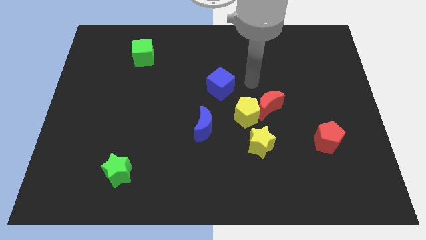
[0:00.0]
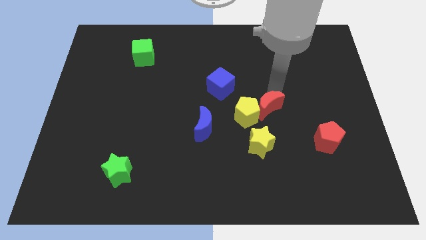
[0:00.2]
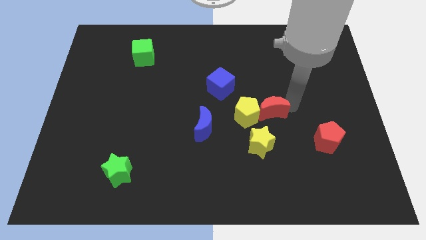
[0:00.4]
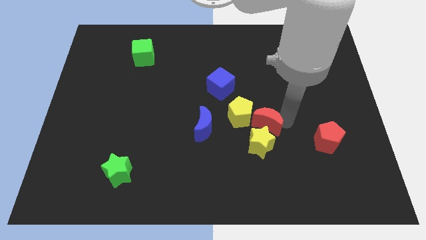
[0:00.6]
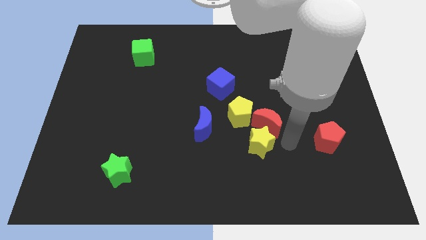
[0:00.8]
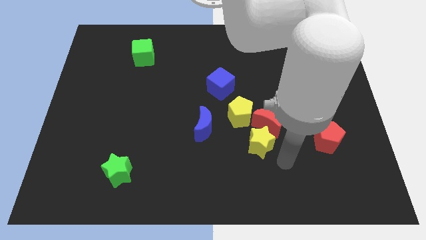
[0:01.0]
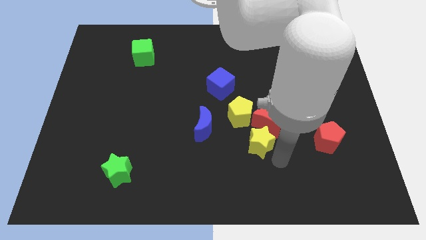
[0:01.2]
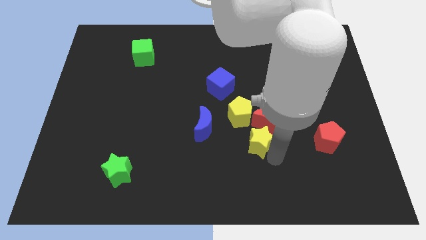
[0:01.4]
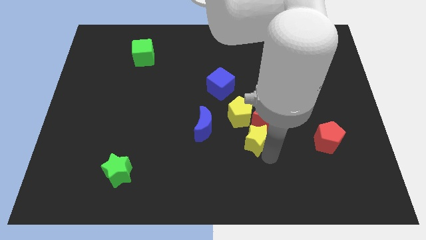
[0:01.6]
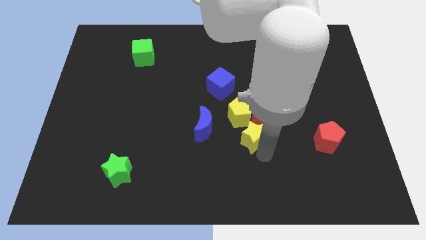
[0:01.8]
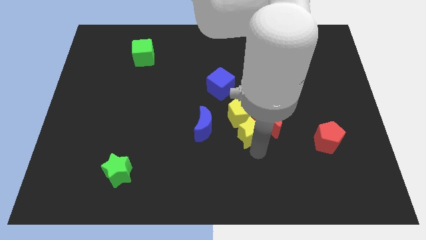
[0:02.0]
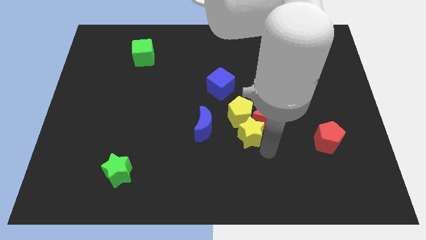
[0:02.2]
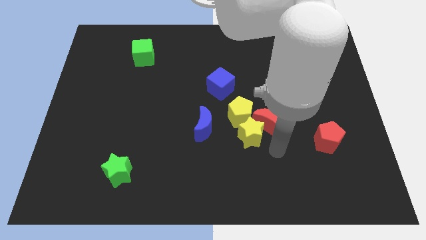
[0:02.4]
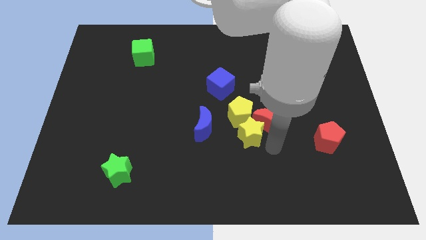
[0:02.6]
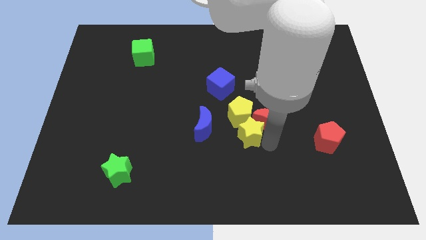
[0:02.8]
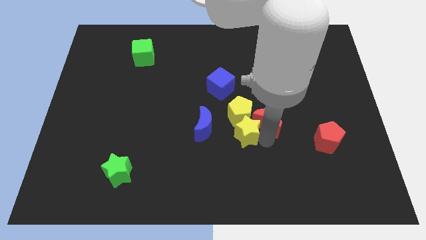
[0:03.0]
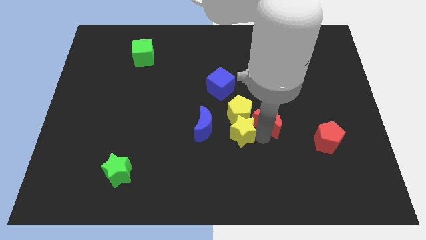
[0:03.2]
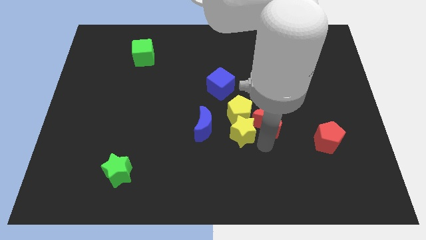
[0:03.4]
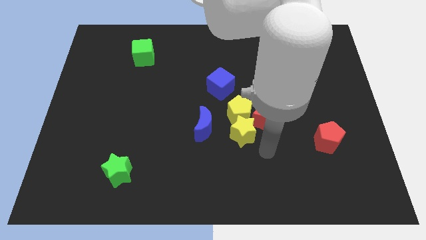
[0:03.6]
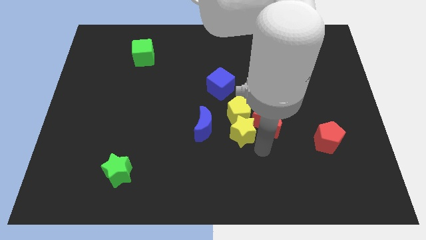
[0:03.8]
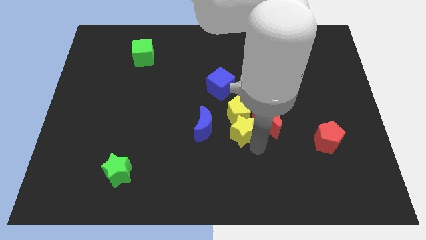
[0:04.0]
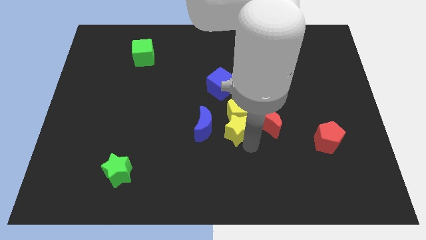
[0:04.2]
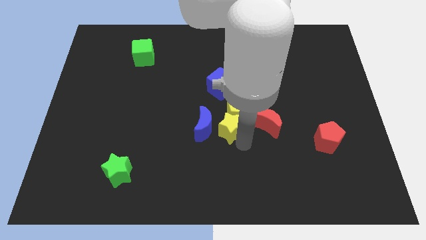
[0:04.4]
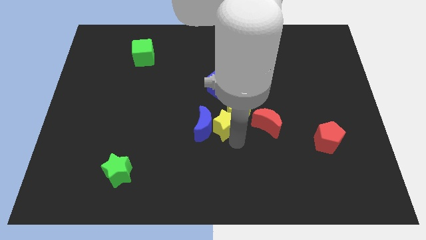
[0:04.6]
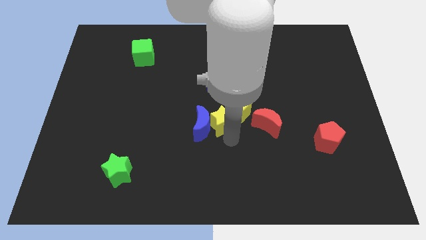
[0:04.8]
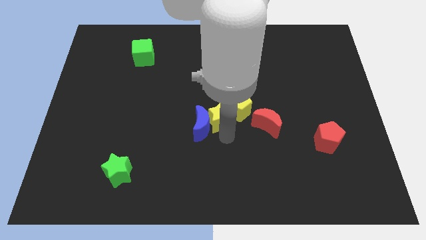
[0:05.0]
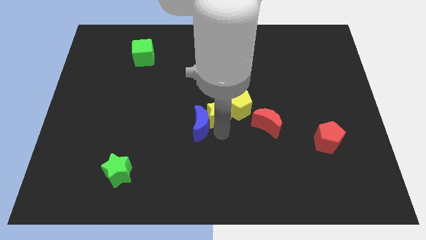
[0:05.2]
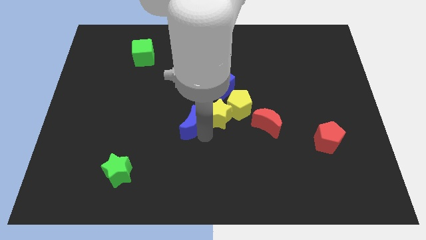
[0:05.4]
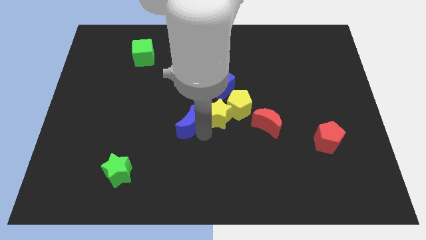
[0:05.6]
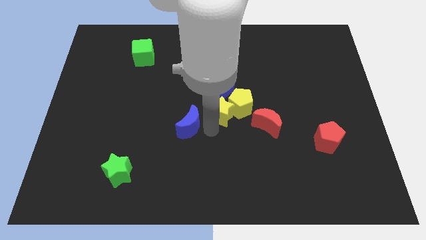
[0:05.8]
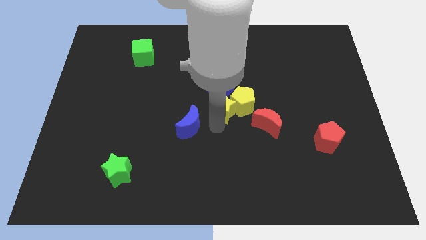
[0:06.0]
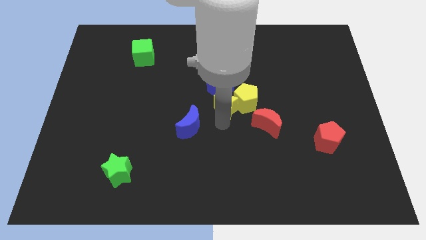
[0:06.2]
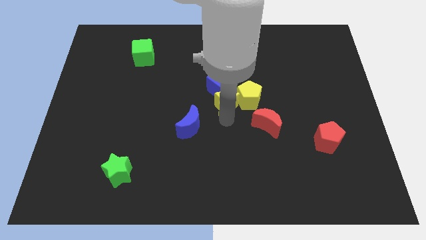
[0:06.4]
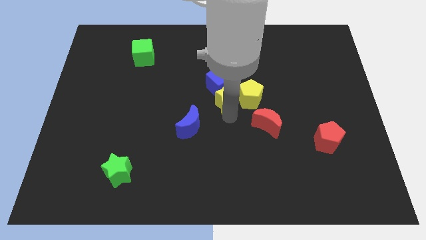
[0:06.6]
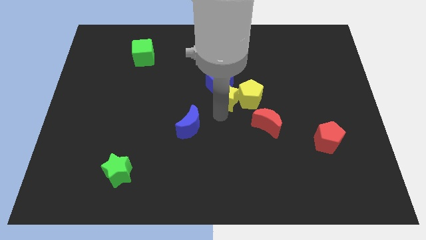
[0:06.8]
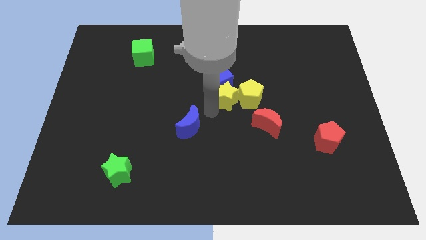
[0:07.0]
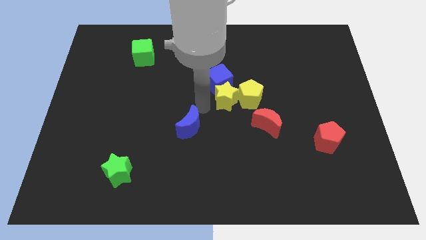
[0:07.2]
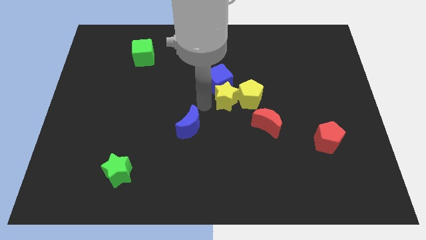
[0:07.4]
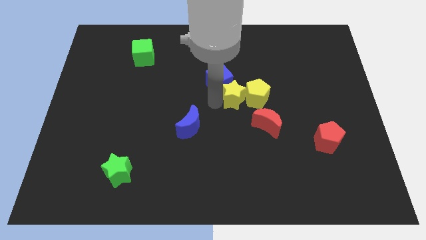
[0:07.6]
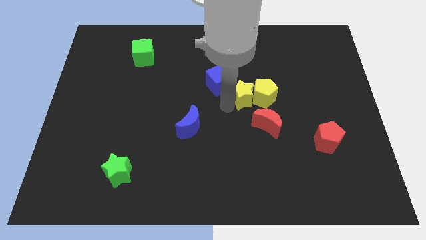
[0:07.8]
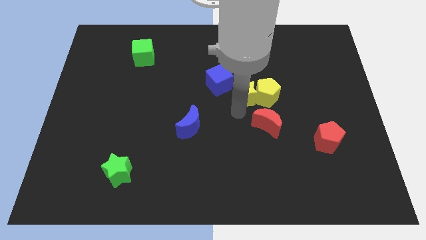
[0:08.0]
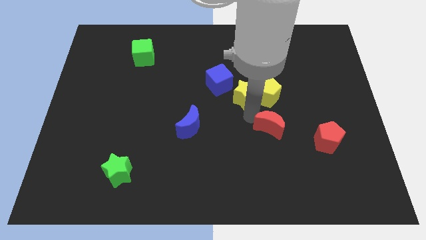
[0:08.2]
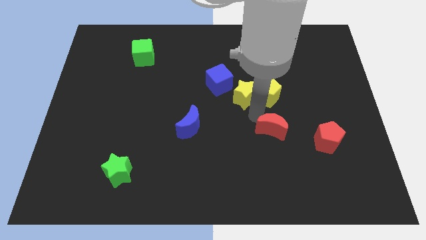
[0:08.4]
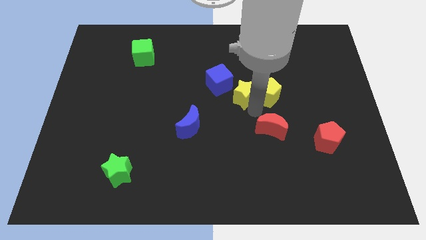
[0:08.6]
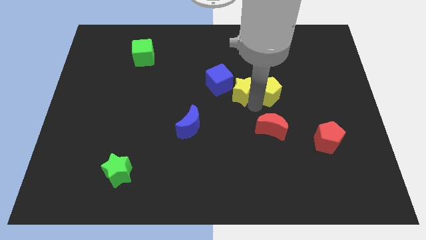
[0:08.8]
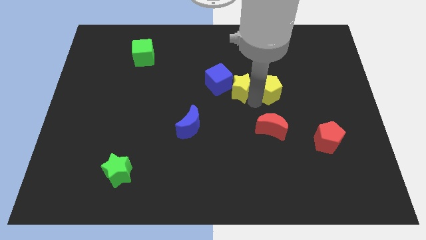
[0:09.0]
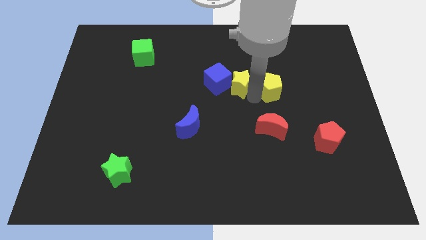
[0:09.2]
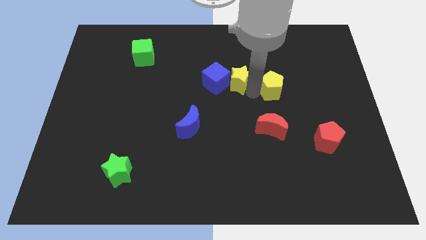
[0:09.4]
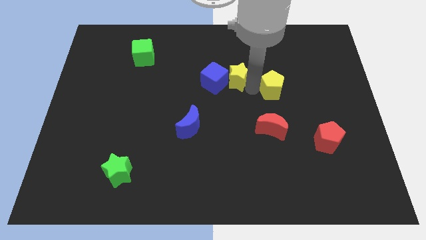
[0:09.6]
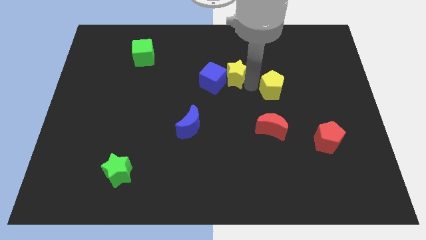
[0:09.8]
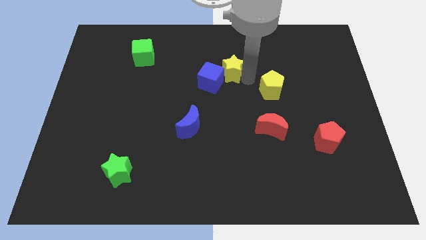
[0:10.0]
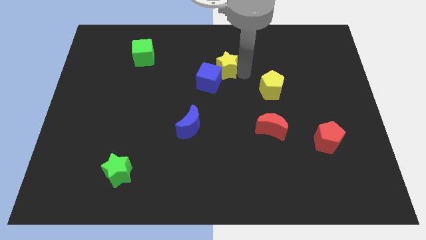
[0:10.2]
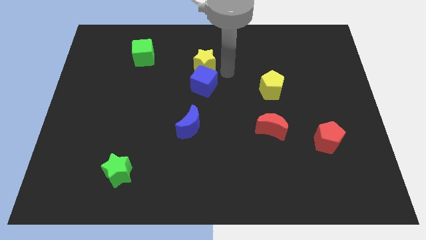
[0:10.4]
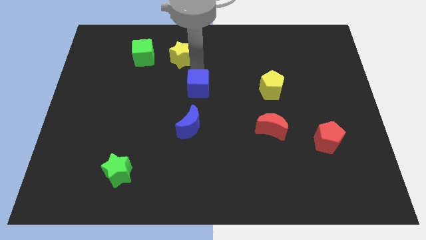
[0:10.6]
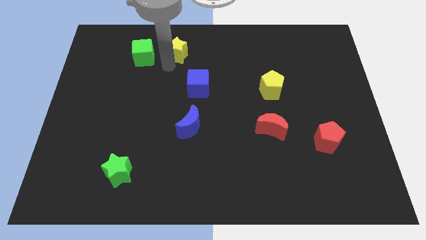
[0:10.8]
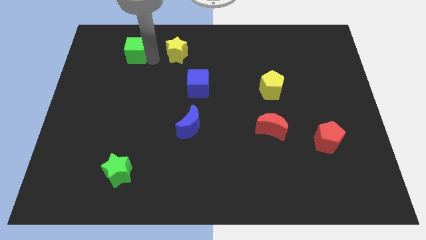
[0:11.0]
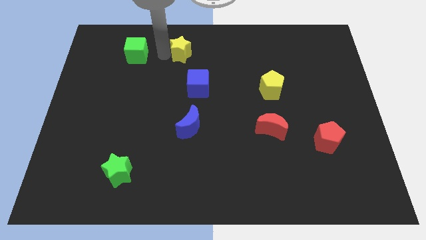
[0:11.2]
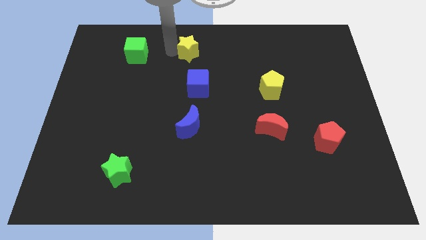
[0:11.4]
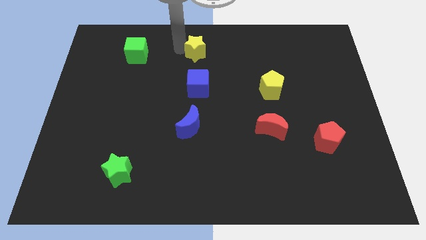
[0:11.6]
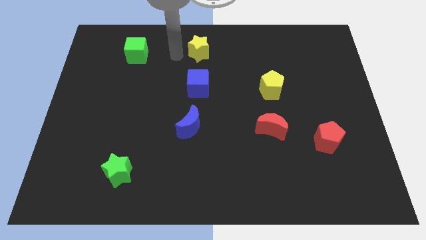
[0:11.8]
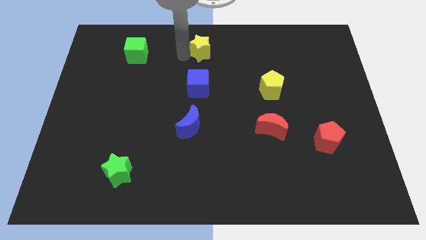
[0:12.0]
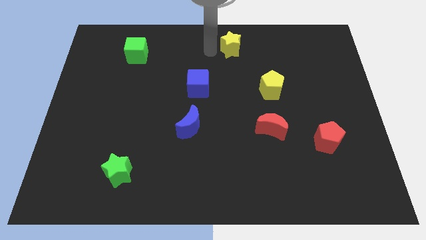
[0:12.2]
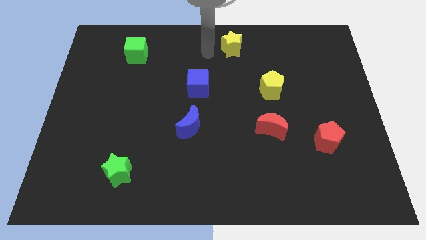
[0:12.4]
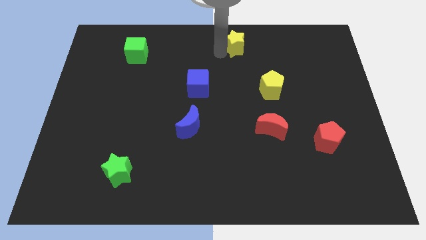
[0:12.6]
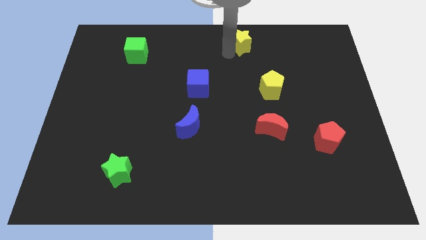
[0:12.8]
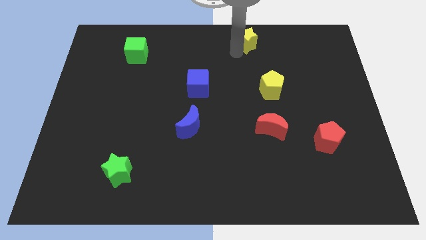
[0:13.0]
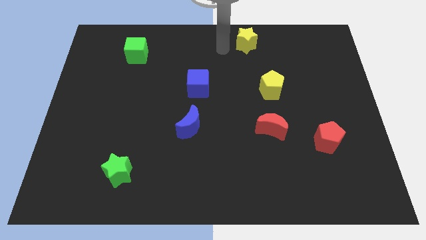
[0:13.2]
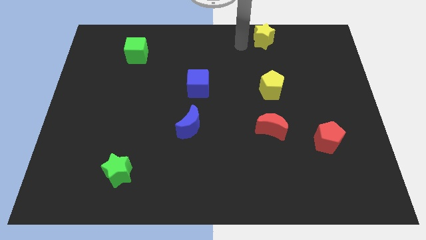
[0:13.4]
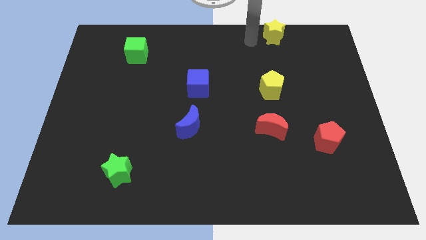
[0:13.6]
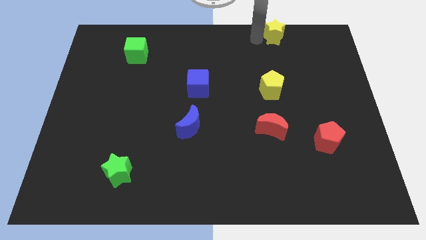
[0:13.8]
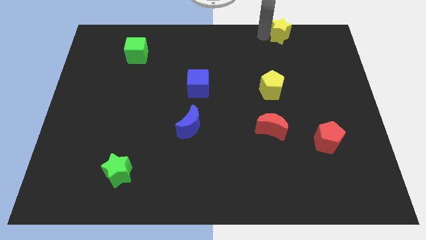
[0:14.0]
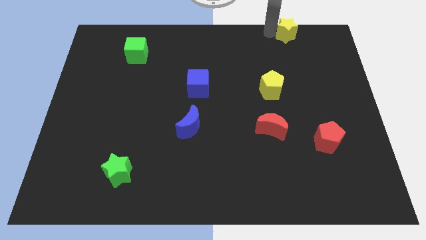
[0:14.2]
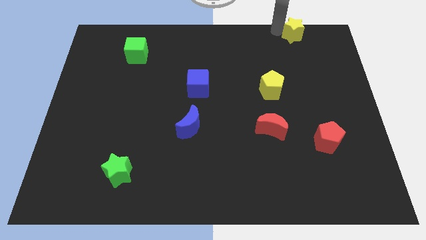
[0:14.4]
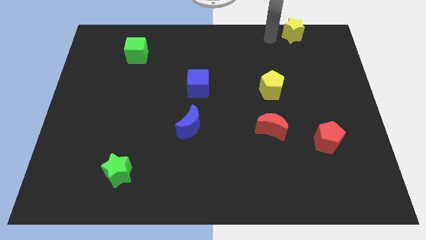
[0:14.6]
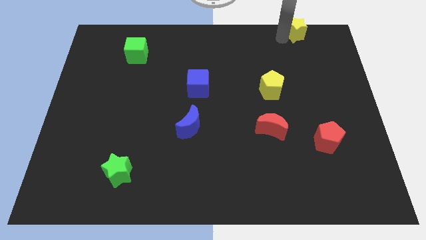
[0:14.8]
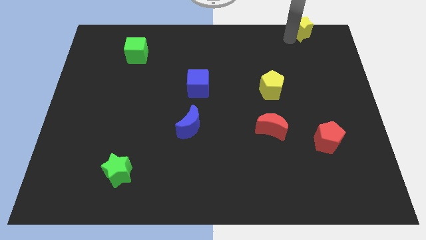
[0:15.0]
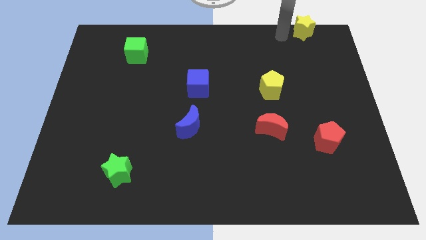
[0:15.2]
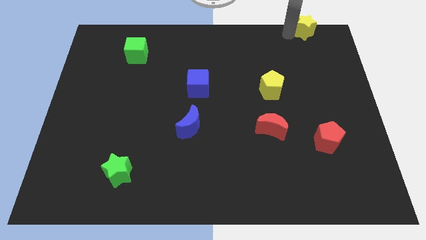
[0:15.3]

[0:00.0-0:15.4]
slide the yellow star to the upper right corner
